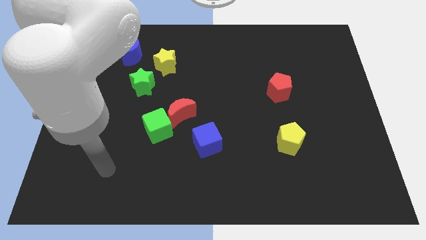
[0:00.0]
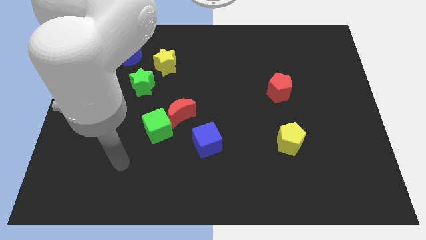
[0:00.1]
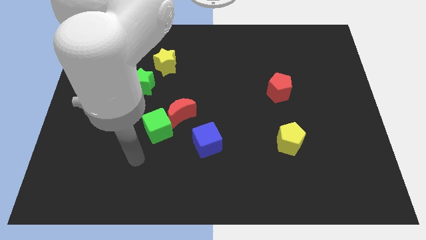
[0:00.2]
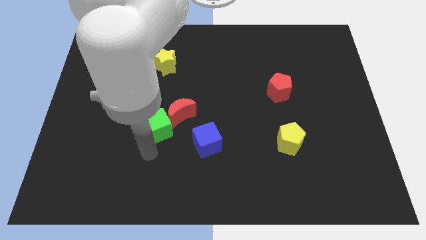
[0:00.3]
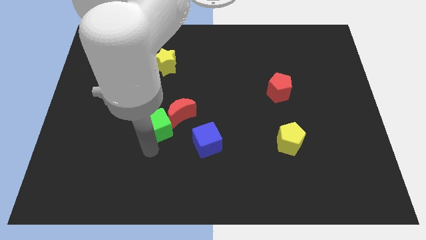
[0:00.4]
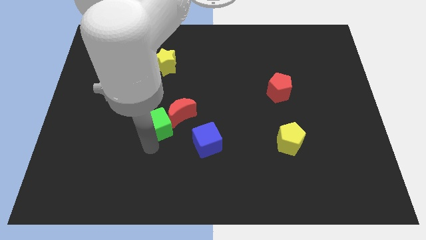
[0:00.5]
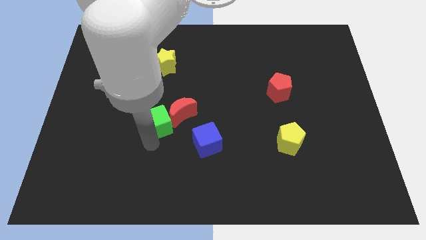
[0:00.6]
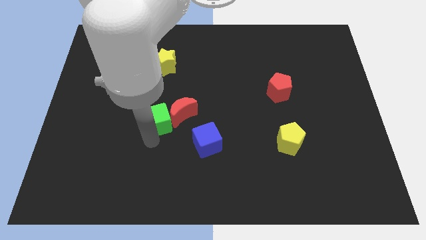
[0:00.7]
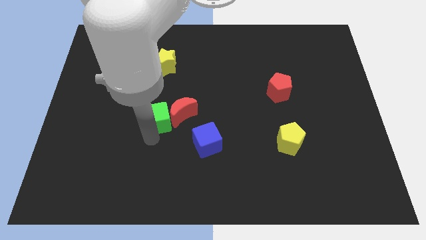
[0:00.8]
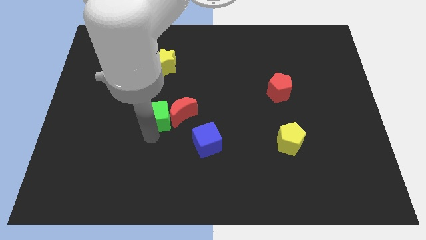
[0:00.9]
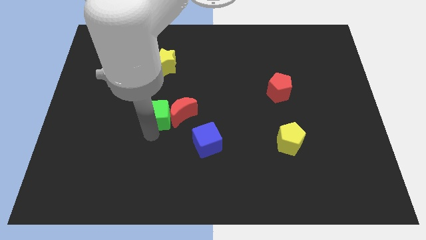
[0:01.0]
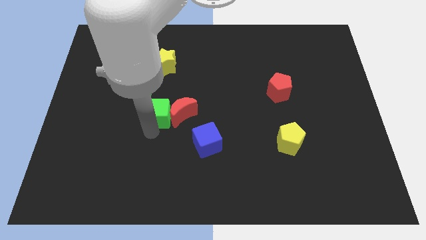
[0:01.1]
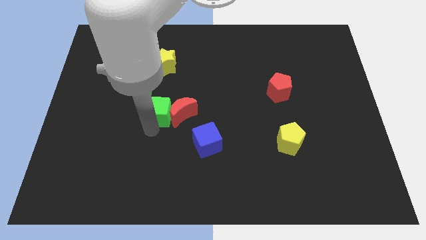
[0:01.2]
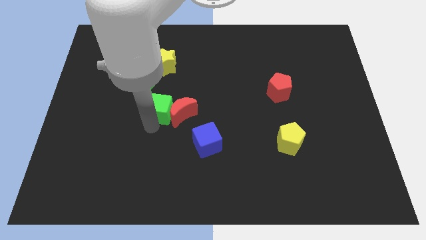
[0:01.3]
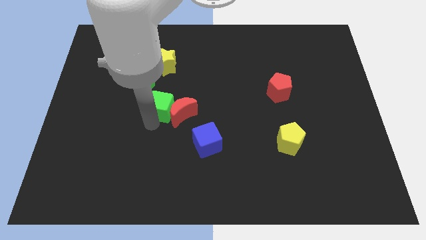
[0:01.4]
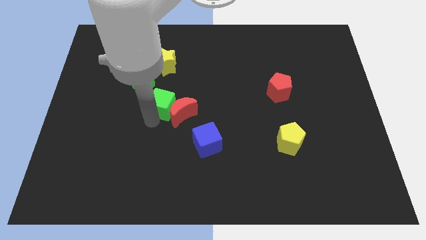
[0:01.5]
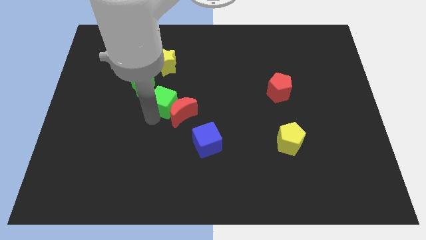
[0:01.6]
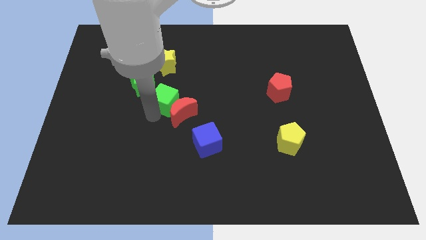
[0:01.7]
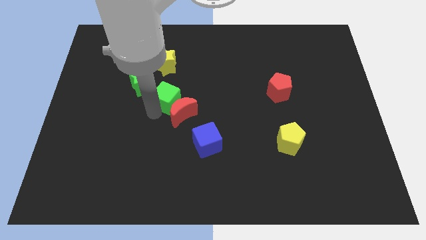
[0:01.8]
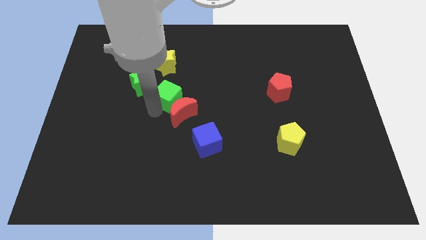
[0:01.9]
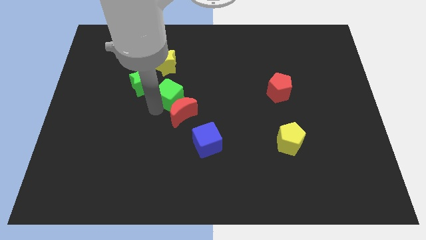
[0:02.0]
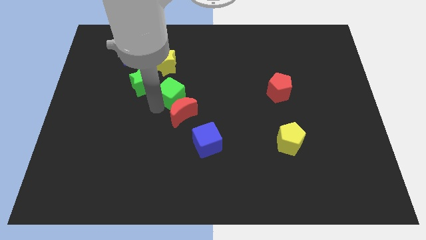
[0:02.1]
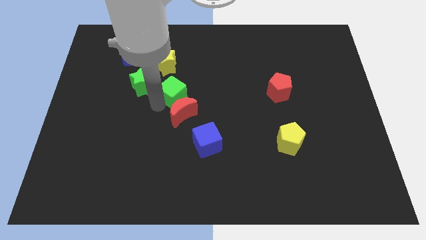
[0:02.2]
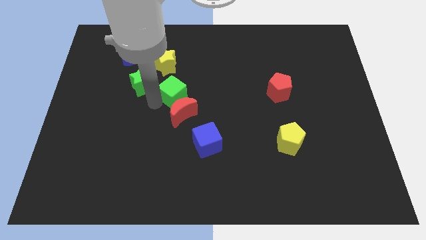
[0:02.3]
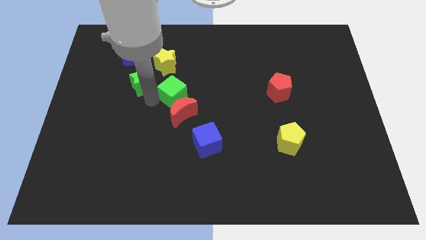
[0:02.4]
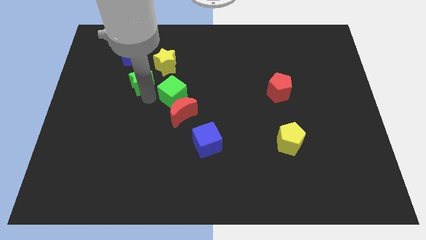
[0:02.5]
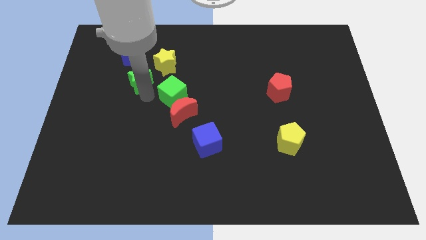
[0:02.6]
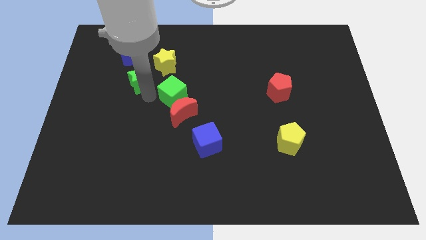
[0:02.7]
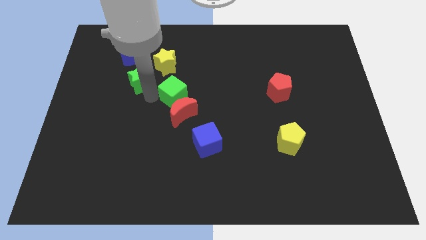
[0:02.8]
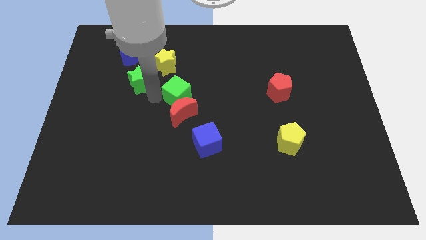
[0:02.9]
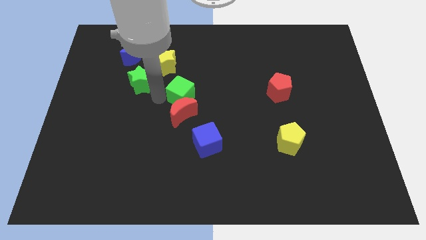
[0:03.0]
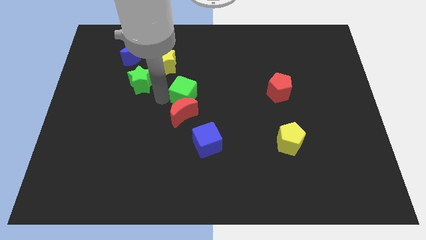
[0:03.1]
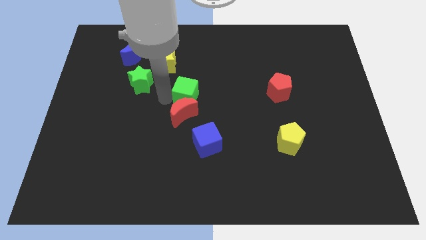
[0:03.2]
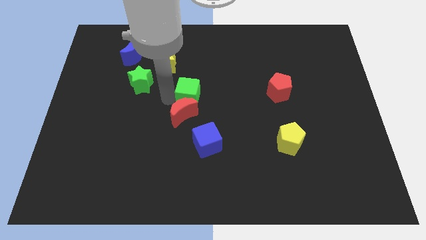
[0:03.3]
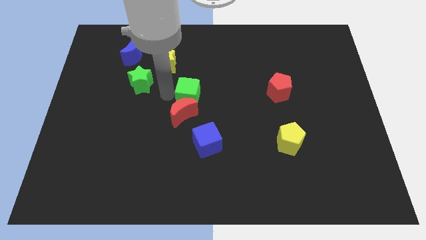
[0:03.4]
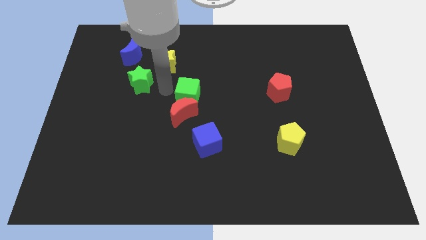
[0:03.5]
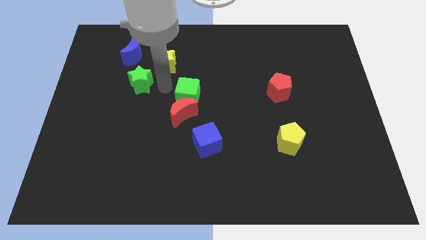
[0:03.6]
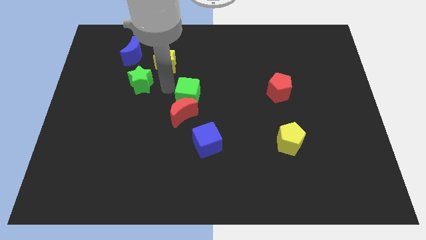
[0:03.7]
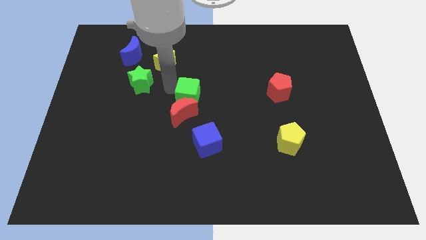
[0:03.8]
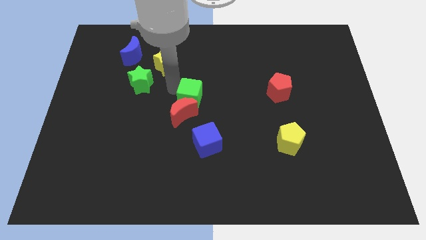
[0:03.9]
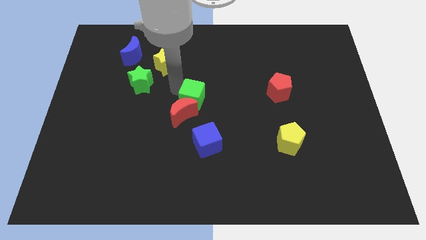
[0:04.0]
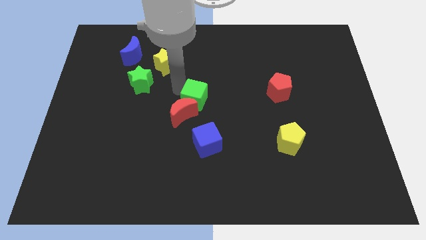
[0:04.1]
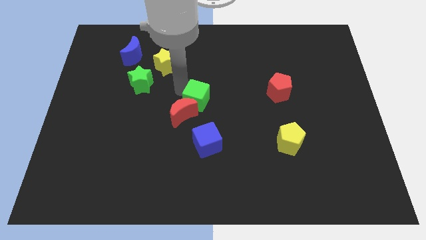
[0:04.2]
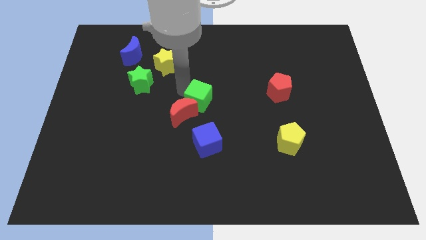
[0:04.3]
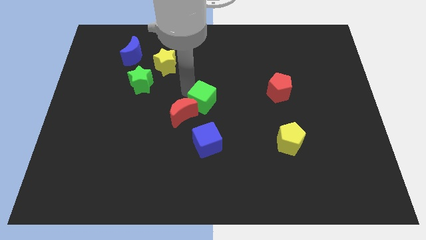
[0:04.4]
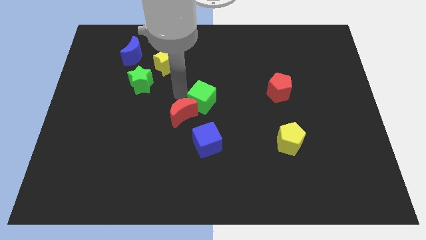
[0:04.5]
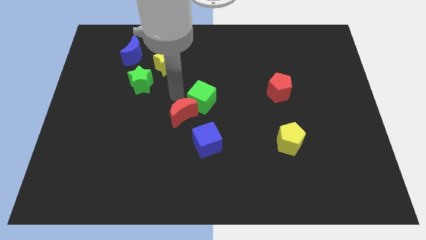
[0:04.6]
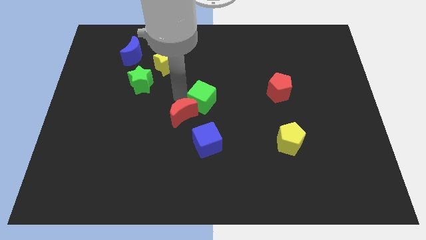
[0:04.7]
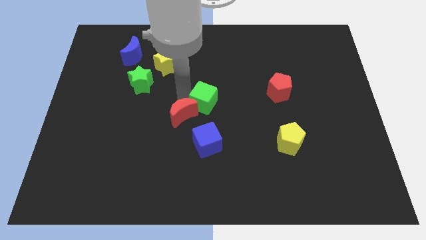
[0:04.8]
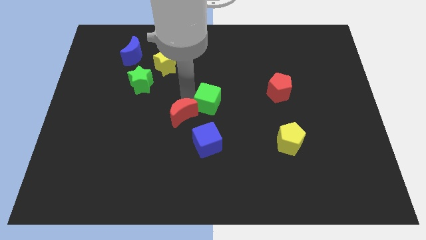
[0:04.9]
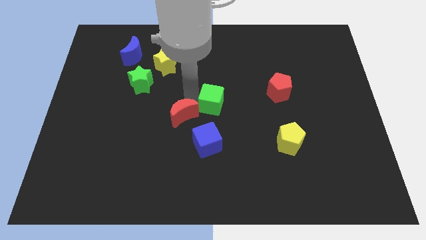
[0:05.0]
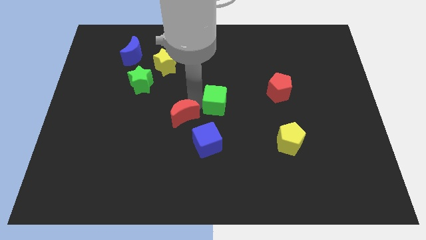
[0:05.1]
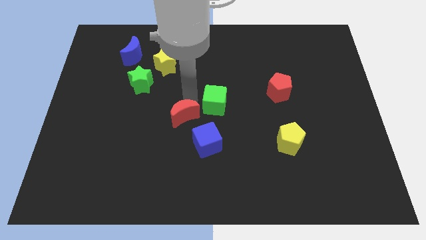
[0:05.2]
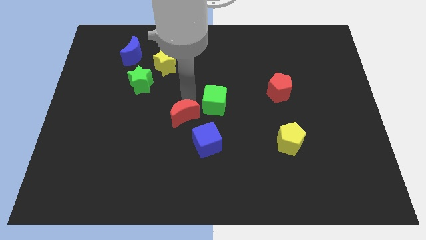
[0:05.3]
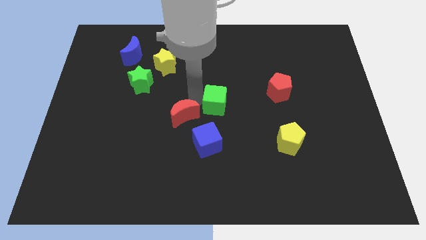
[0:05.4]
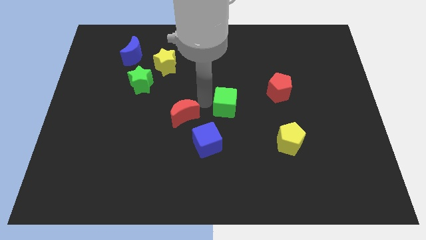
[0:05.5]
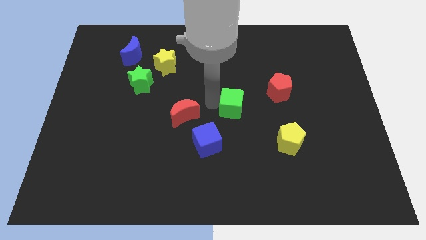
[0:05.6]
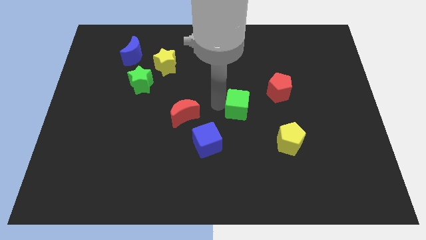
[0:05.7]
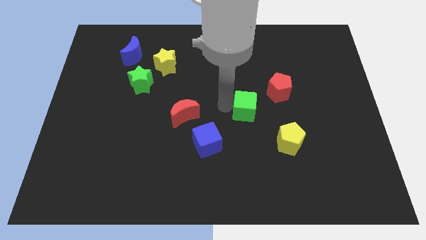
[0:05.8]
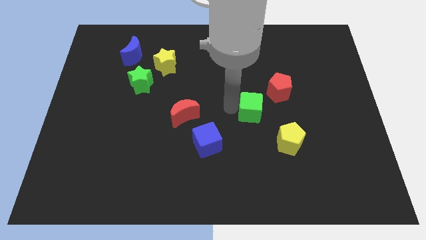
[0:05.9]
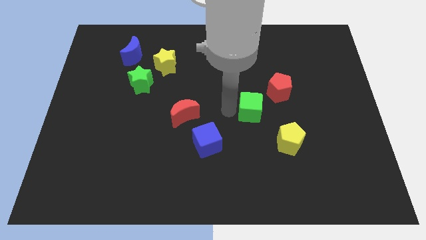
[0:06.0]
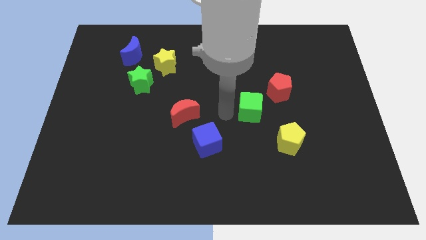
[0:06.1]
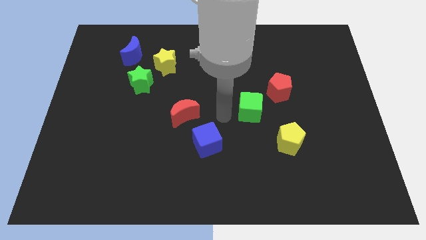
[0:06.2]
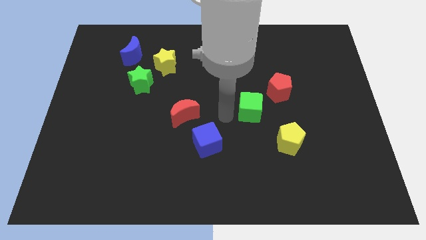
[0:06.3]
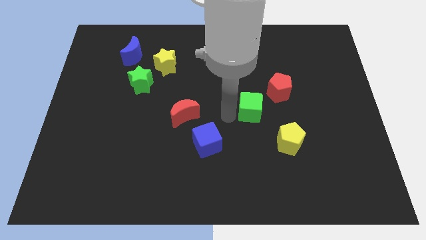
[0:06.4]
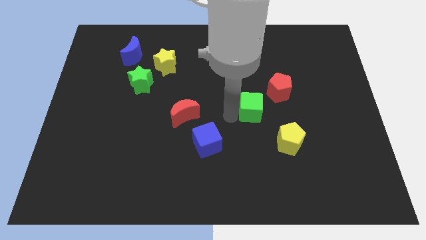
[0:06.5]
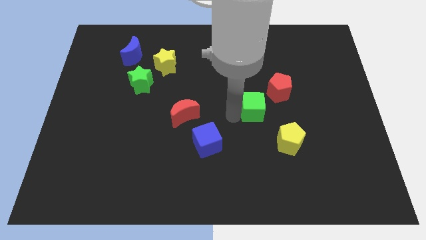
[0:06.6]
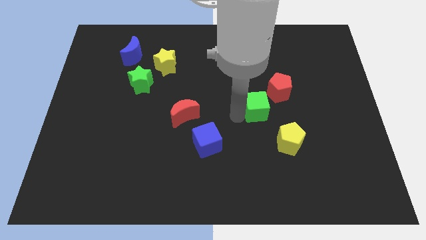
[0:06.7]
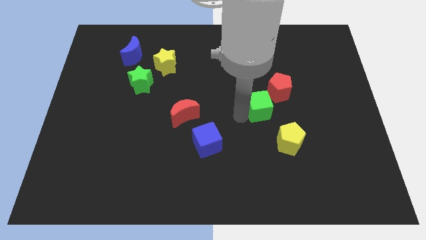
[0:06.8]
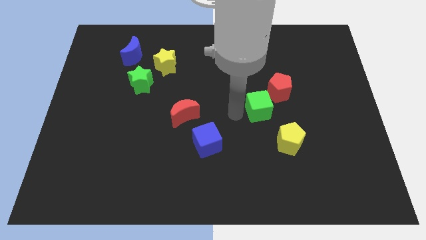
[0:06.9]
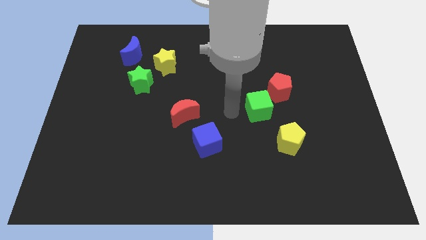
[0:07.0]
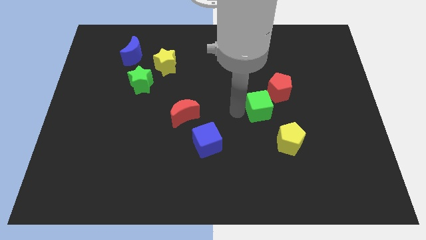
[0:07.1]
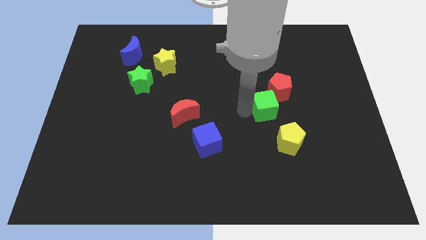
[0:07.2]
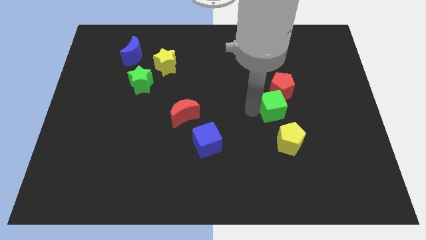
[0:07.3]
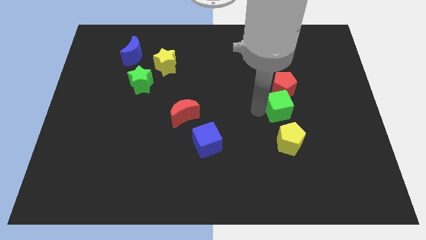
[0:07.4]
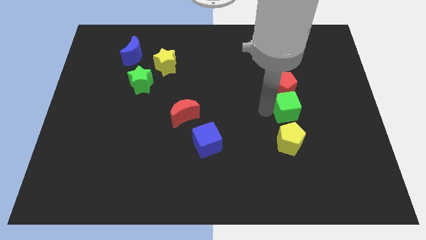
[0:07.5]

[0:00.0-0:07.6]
move the green cube to the bottom right of the red pentagon
